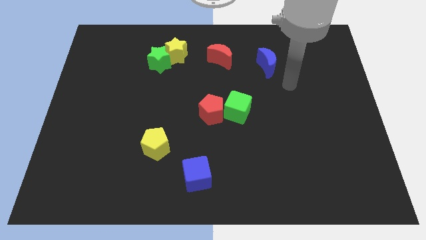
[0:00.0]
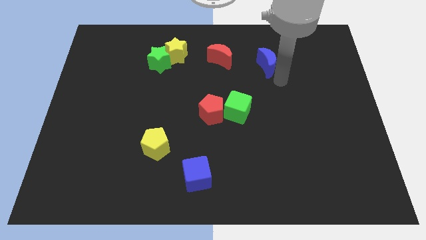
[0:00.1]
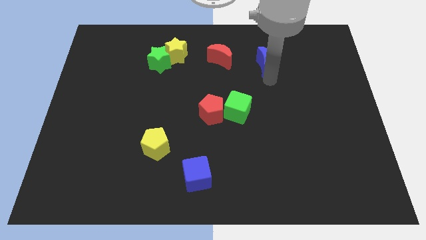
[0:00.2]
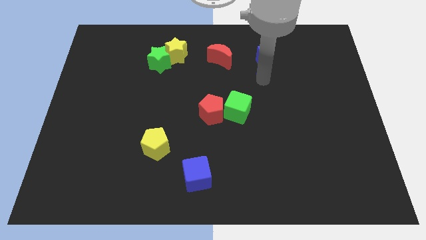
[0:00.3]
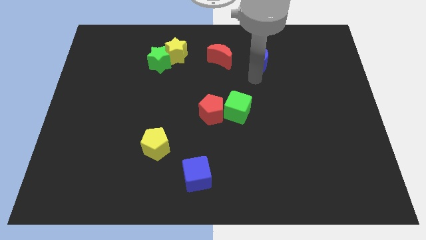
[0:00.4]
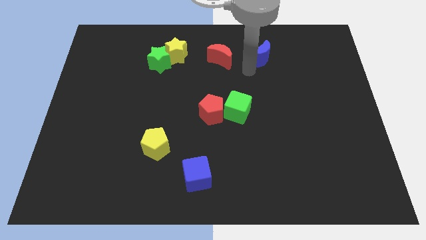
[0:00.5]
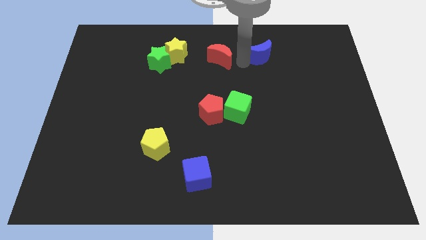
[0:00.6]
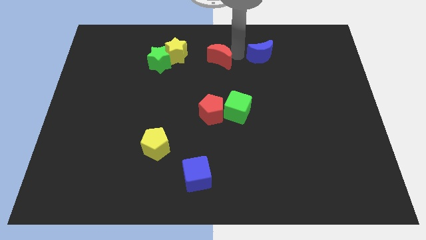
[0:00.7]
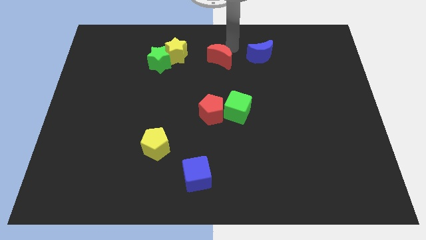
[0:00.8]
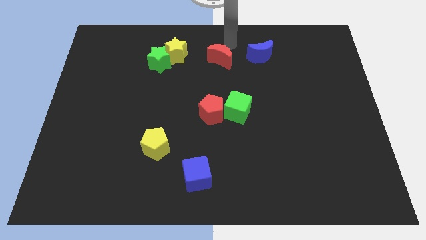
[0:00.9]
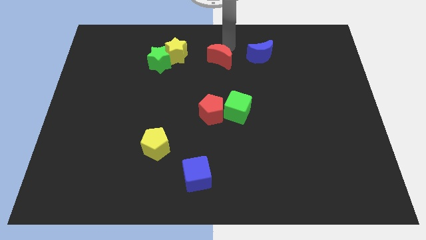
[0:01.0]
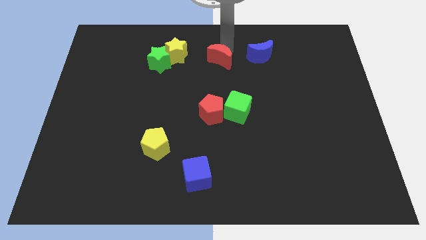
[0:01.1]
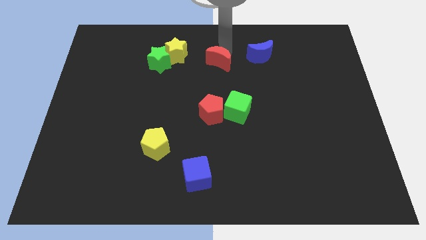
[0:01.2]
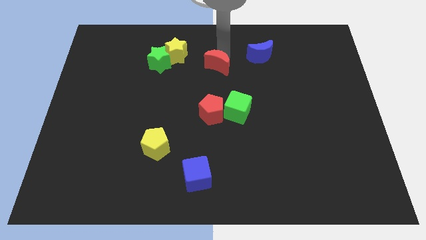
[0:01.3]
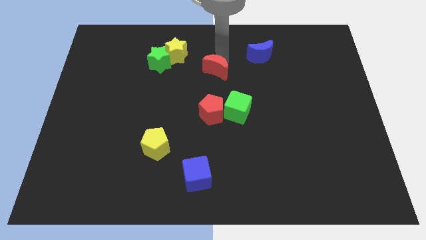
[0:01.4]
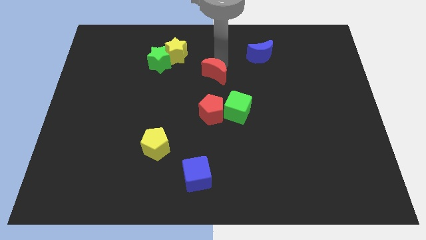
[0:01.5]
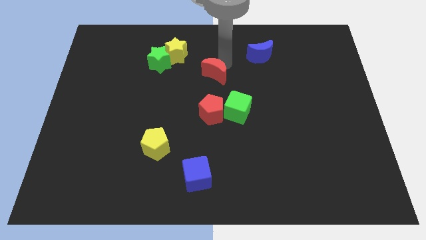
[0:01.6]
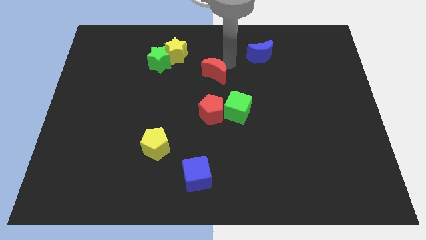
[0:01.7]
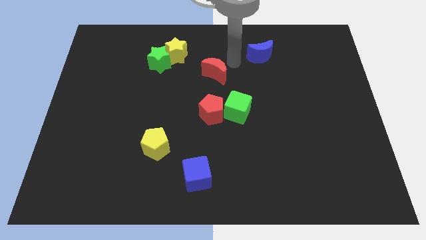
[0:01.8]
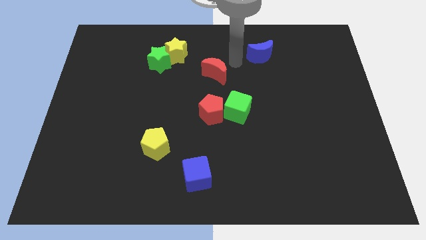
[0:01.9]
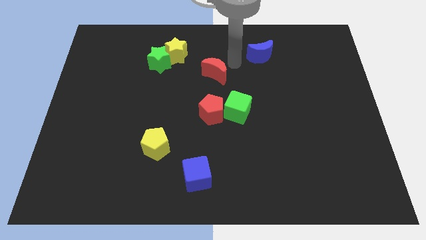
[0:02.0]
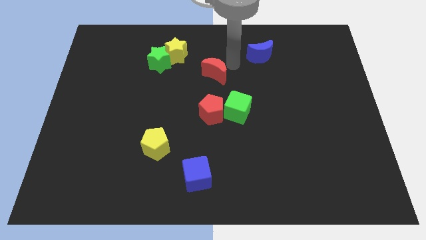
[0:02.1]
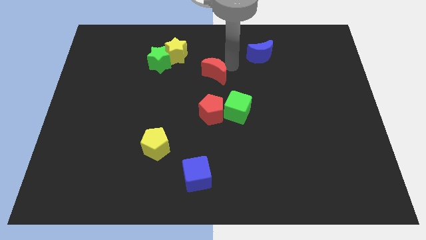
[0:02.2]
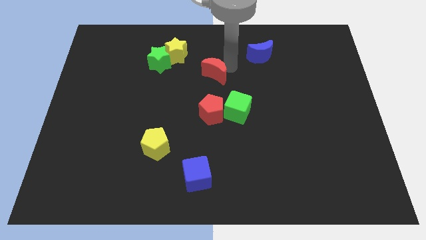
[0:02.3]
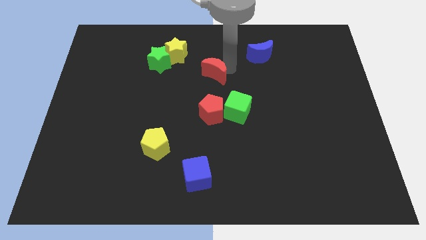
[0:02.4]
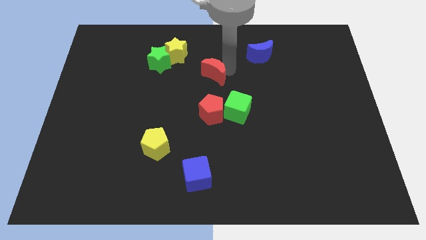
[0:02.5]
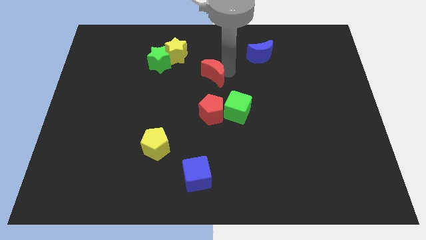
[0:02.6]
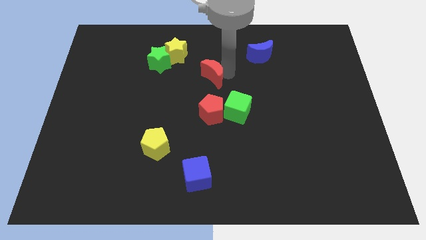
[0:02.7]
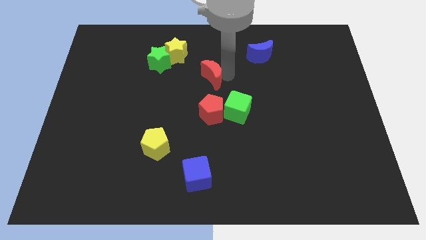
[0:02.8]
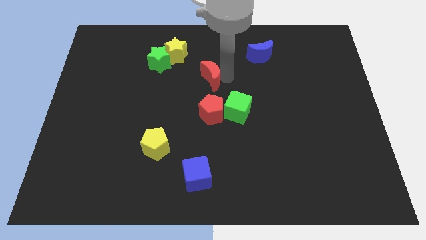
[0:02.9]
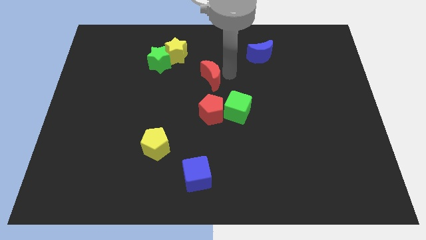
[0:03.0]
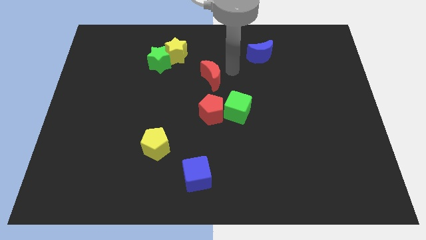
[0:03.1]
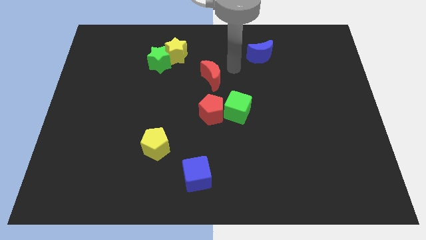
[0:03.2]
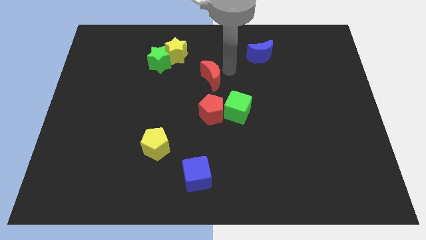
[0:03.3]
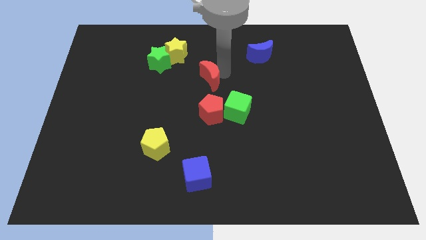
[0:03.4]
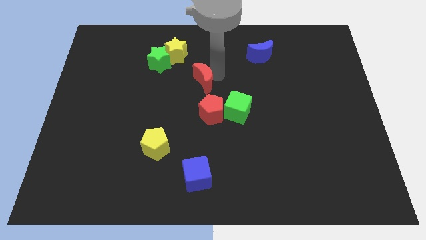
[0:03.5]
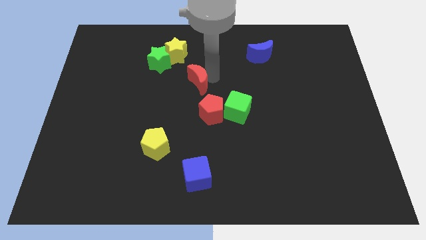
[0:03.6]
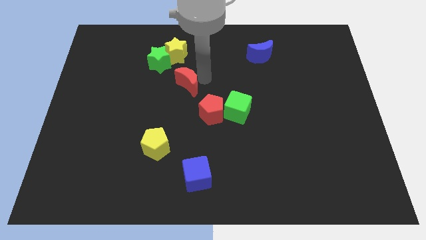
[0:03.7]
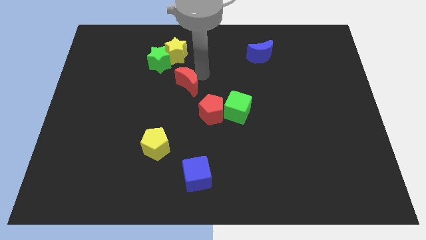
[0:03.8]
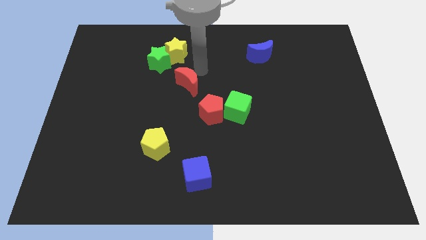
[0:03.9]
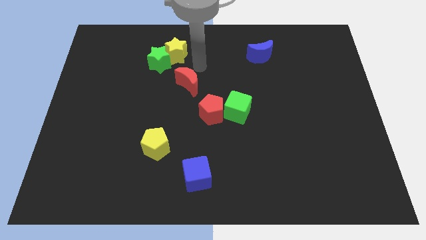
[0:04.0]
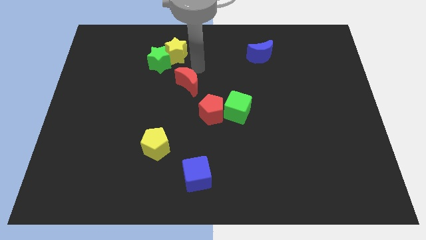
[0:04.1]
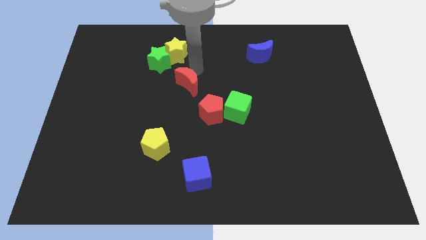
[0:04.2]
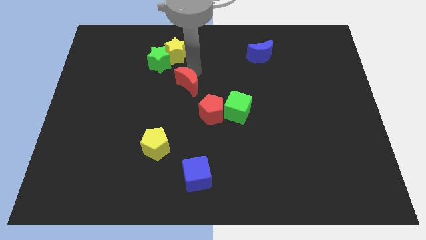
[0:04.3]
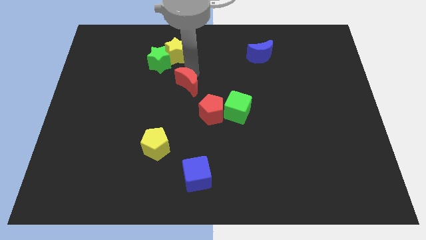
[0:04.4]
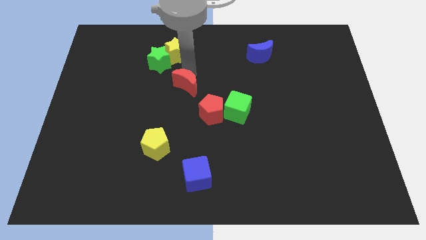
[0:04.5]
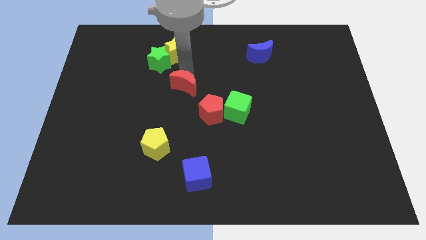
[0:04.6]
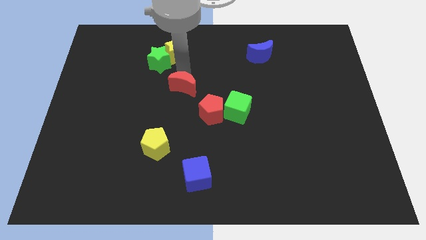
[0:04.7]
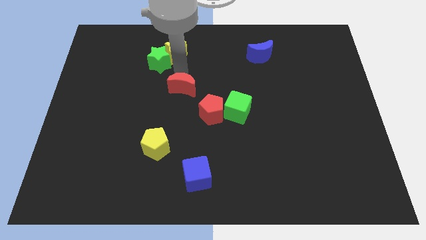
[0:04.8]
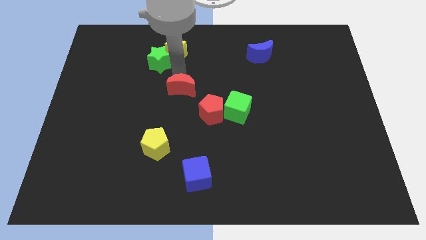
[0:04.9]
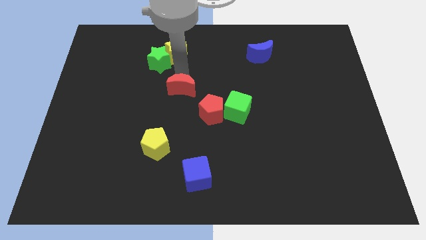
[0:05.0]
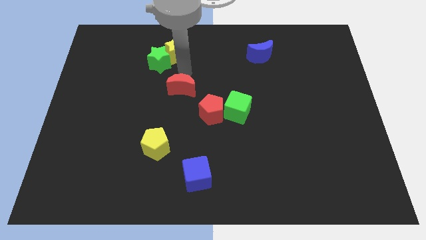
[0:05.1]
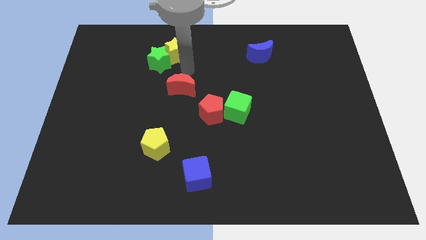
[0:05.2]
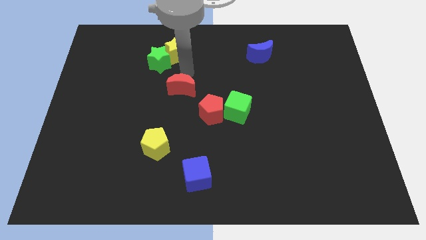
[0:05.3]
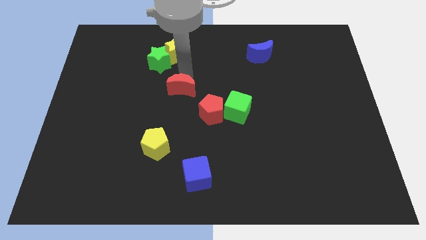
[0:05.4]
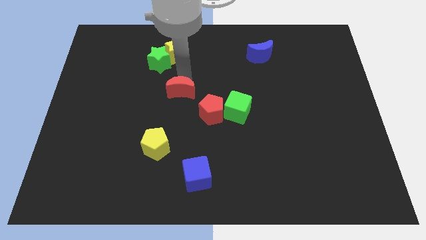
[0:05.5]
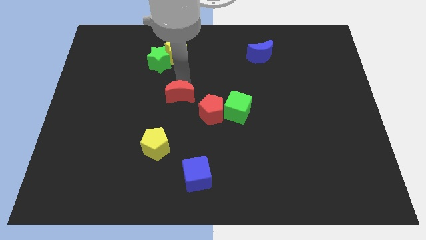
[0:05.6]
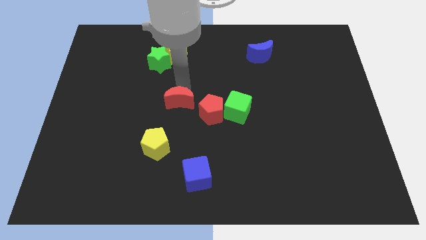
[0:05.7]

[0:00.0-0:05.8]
move the red moon to the left side of the red pentagon

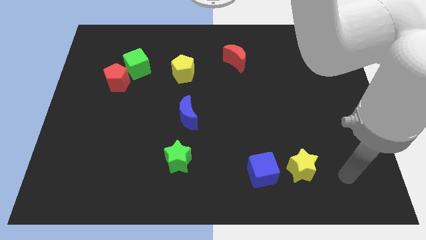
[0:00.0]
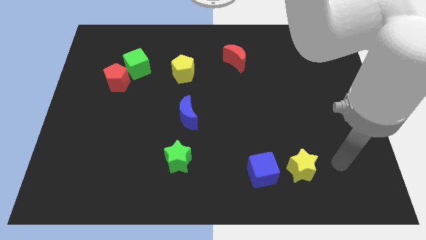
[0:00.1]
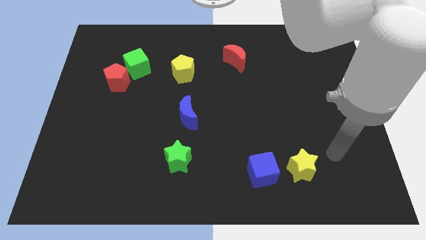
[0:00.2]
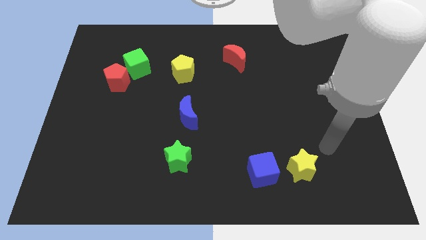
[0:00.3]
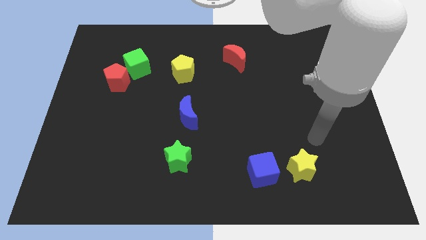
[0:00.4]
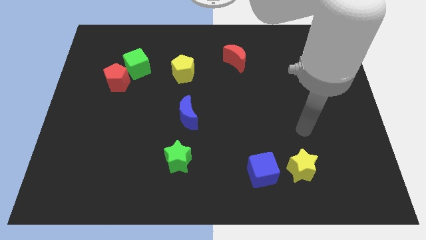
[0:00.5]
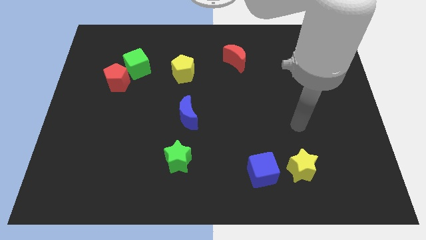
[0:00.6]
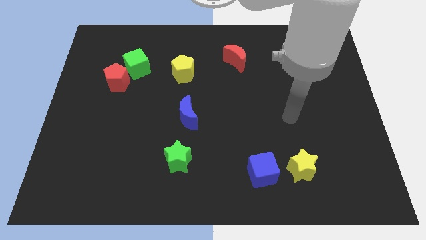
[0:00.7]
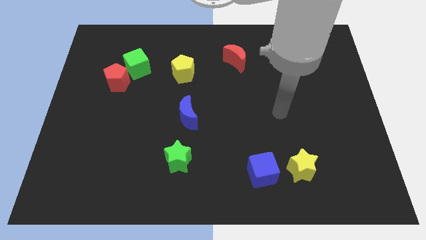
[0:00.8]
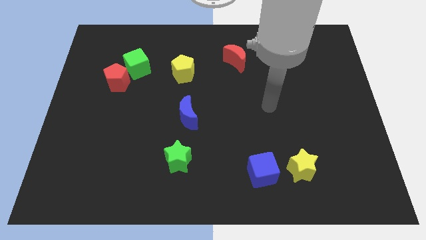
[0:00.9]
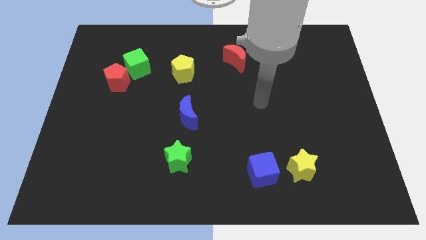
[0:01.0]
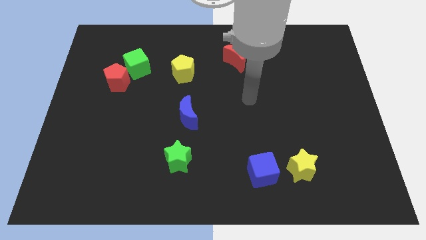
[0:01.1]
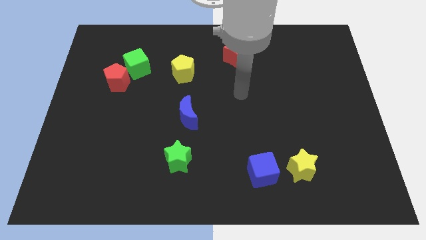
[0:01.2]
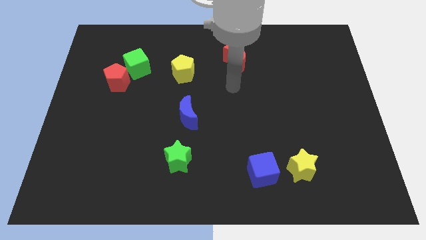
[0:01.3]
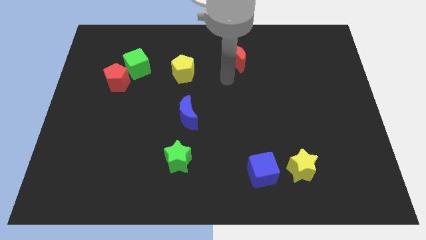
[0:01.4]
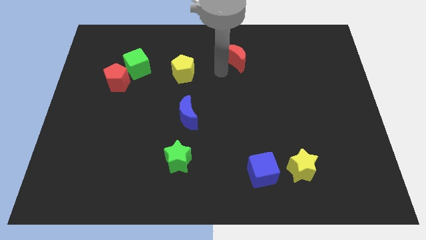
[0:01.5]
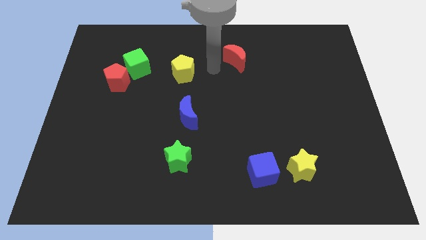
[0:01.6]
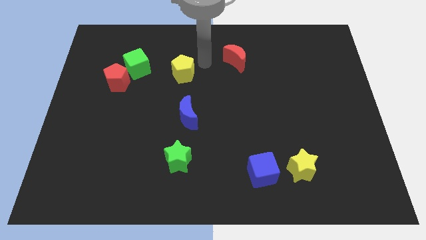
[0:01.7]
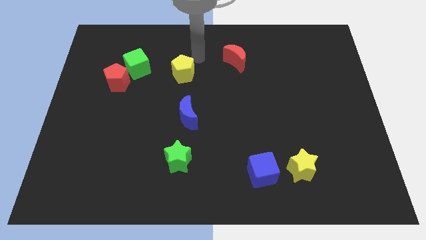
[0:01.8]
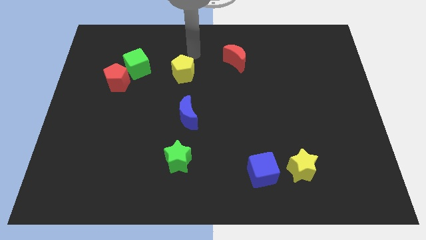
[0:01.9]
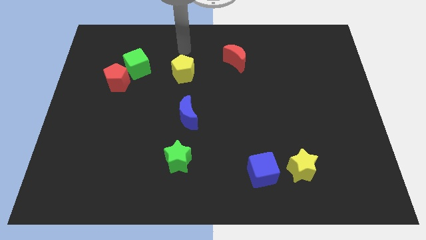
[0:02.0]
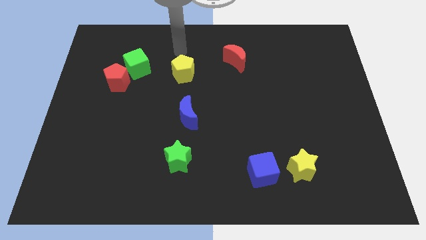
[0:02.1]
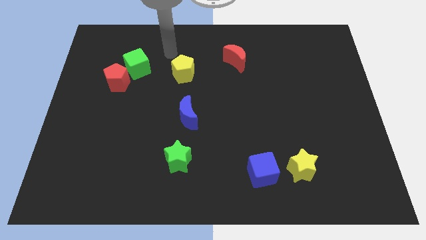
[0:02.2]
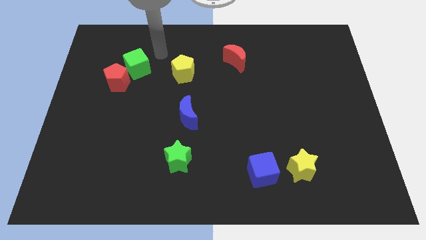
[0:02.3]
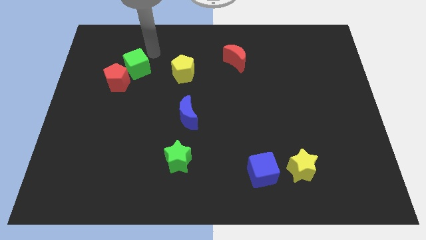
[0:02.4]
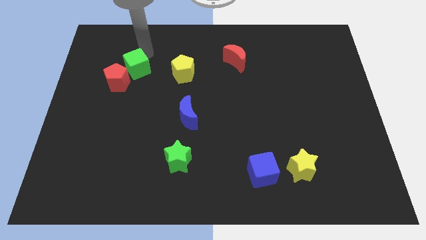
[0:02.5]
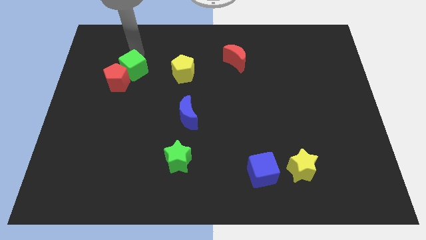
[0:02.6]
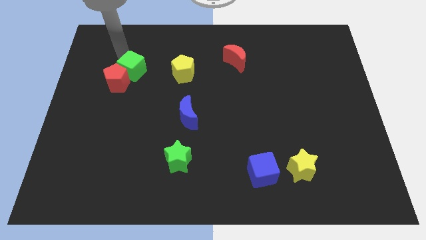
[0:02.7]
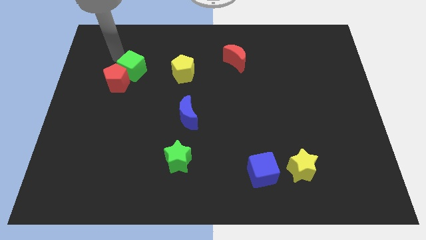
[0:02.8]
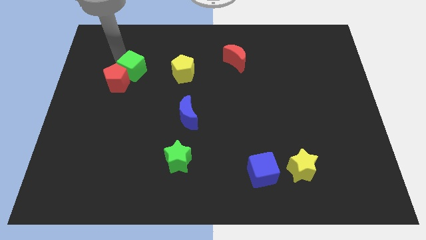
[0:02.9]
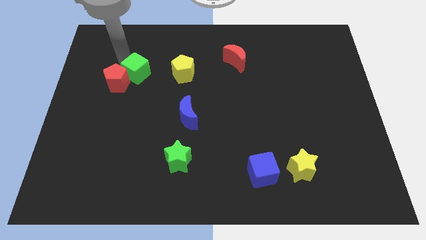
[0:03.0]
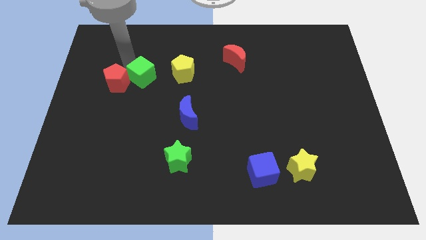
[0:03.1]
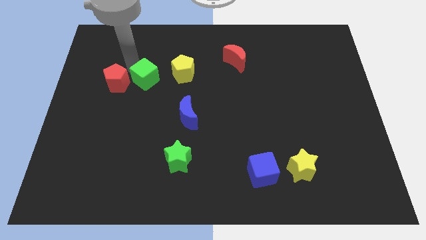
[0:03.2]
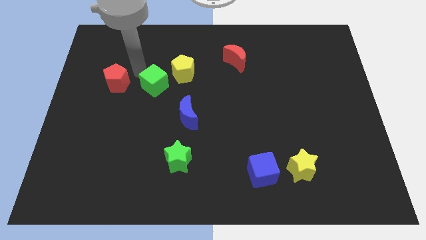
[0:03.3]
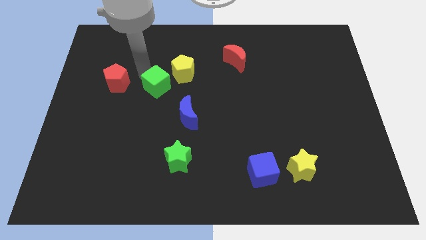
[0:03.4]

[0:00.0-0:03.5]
put the green cube to the top left of the blue moon
